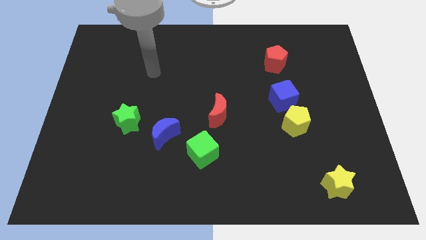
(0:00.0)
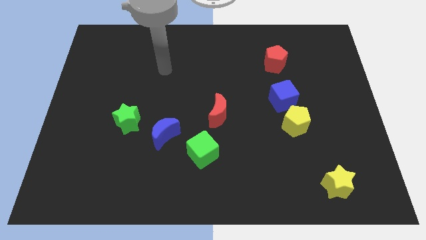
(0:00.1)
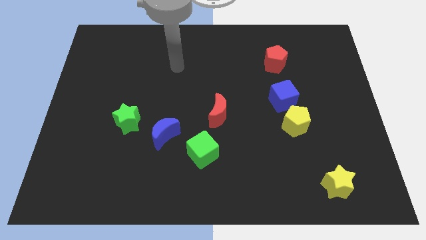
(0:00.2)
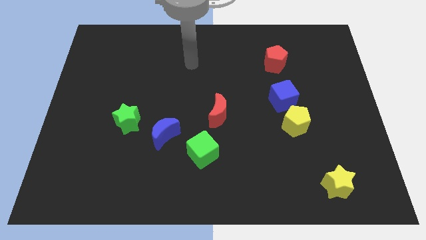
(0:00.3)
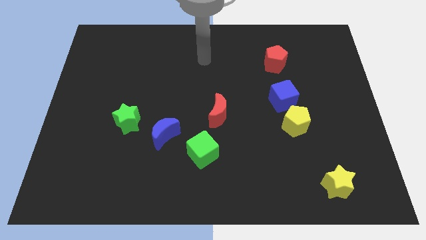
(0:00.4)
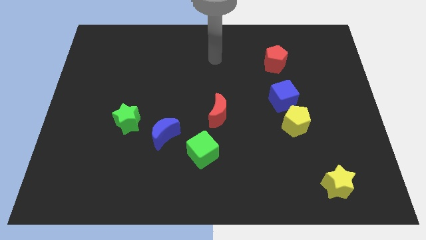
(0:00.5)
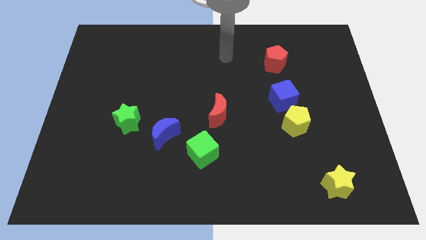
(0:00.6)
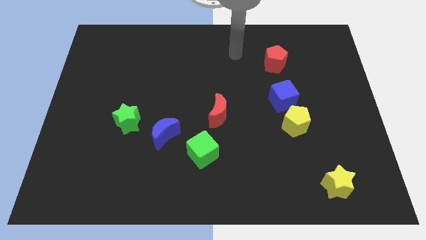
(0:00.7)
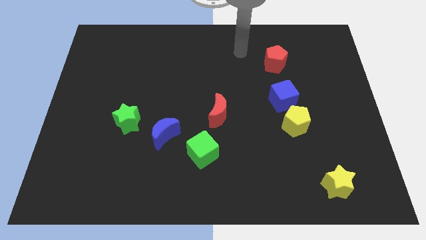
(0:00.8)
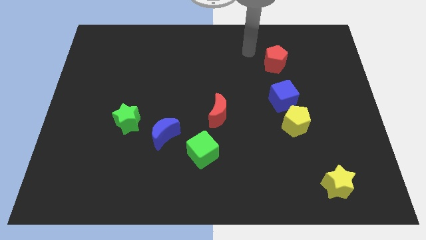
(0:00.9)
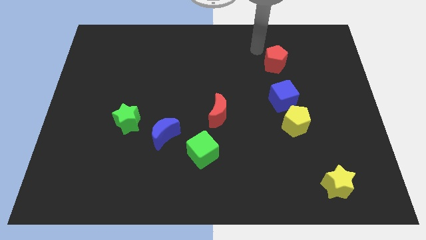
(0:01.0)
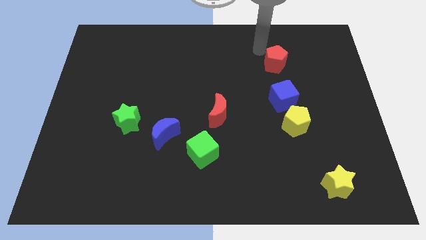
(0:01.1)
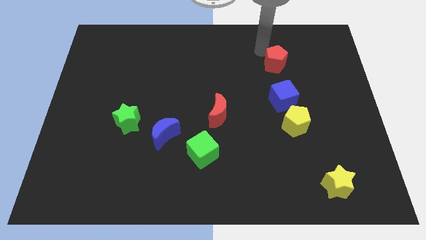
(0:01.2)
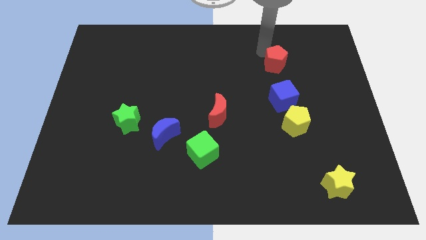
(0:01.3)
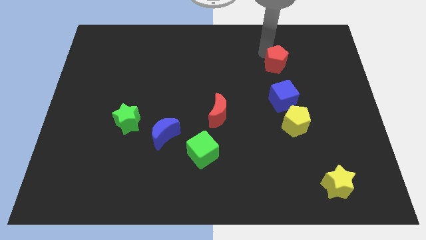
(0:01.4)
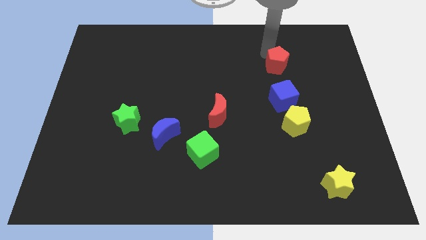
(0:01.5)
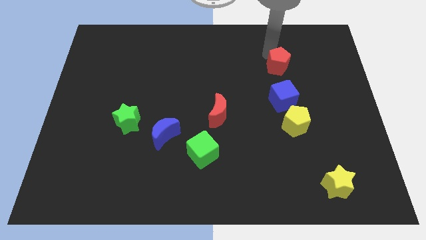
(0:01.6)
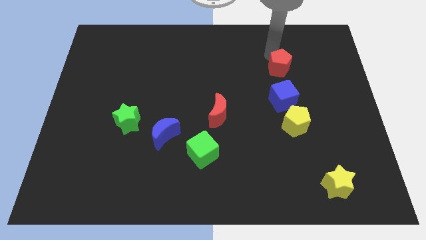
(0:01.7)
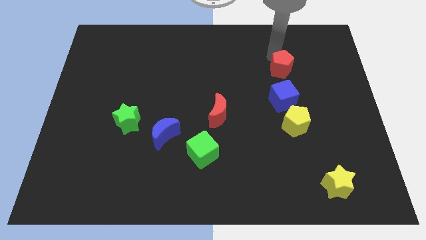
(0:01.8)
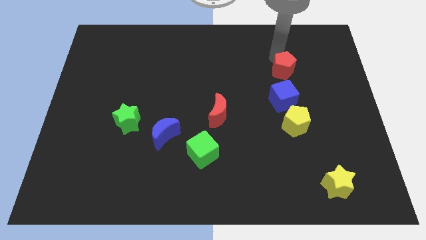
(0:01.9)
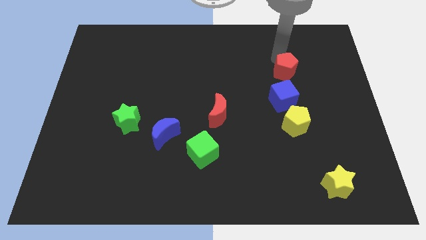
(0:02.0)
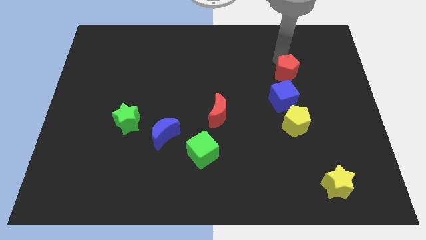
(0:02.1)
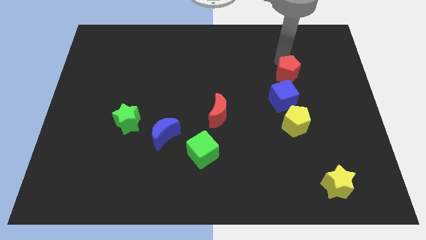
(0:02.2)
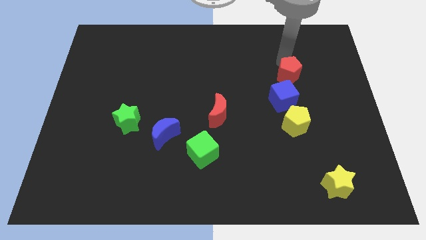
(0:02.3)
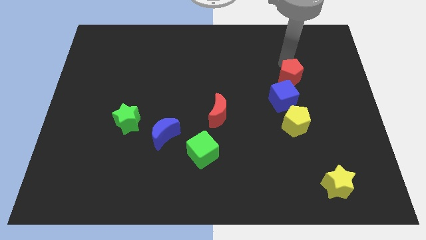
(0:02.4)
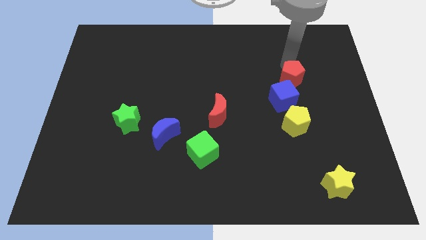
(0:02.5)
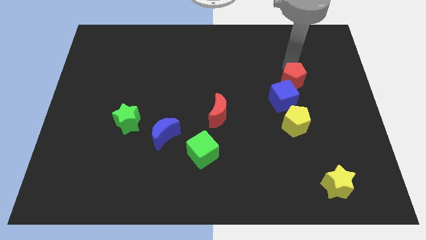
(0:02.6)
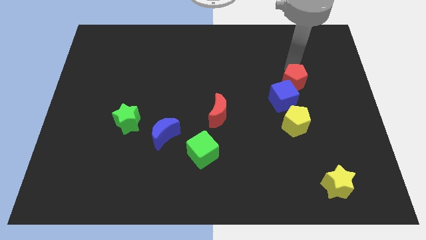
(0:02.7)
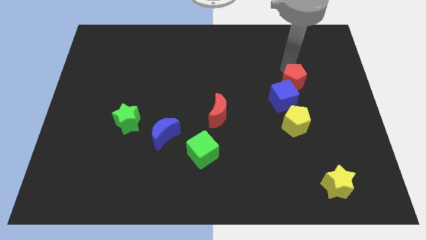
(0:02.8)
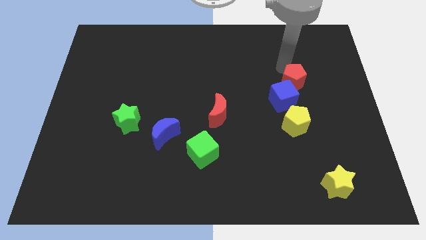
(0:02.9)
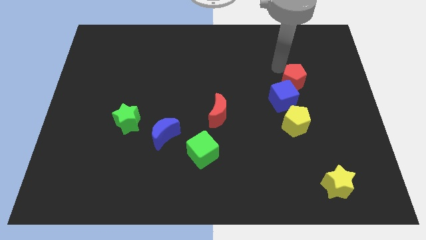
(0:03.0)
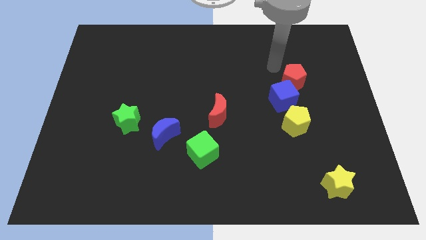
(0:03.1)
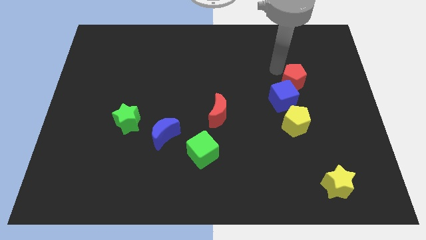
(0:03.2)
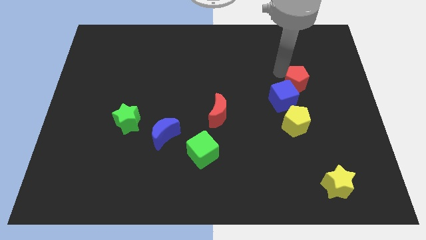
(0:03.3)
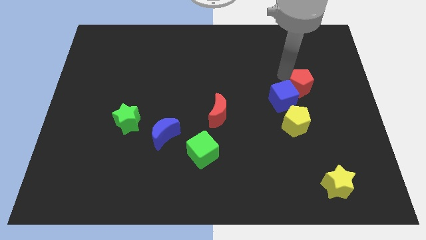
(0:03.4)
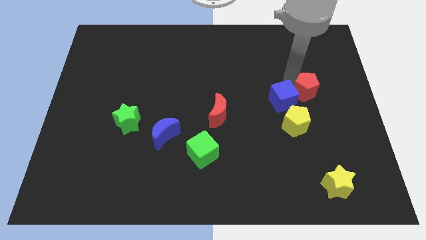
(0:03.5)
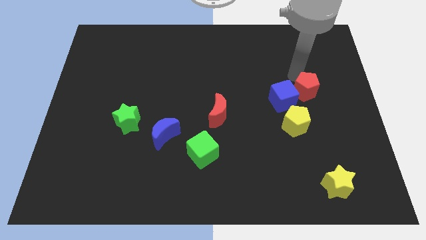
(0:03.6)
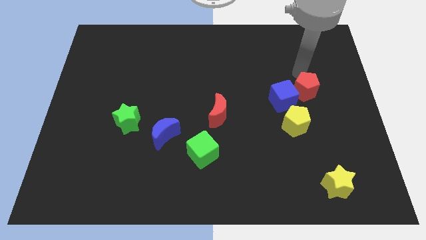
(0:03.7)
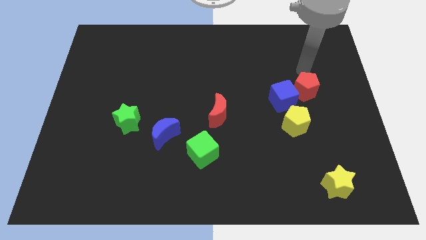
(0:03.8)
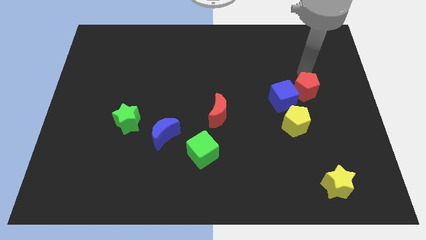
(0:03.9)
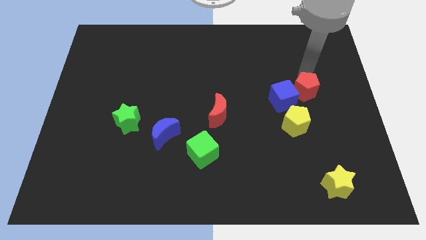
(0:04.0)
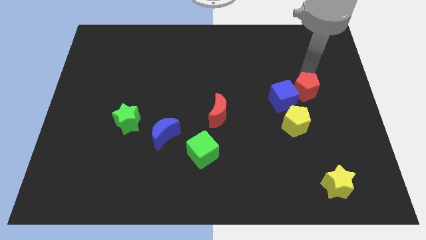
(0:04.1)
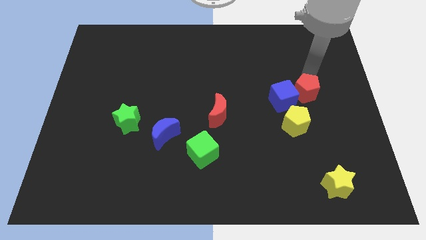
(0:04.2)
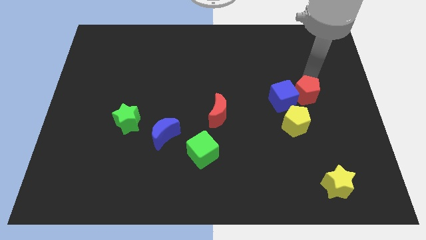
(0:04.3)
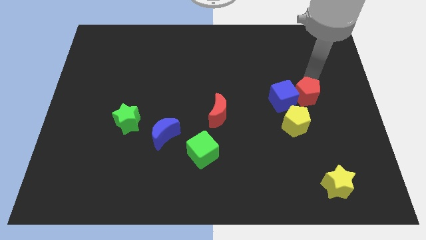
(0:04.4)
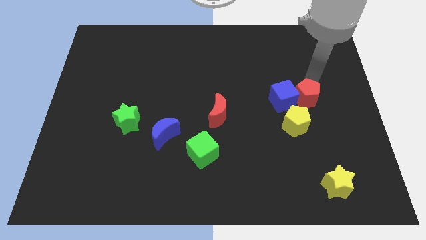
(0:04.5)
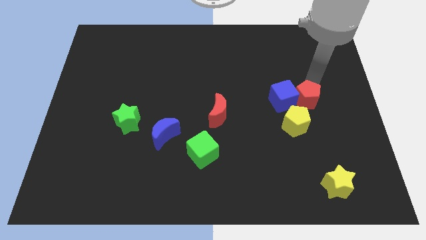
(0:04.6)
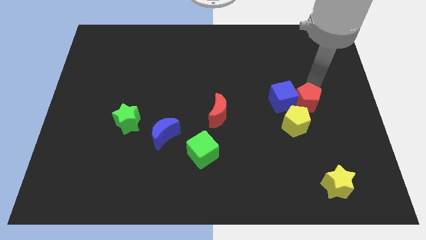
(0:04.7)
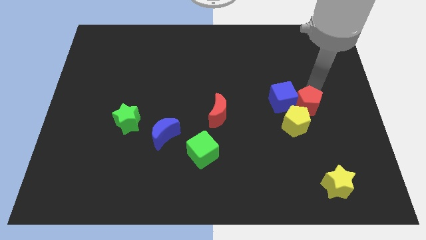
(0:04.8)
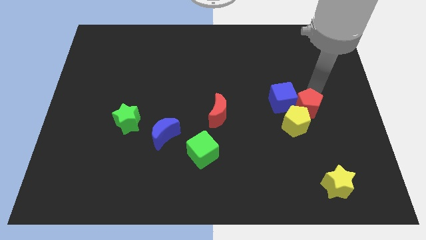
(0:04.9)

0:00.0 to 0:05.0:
put the red pentagon next to the yellow pentagon

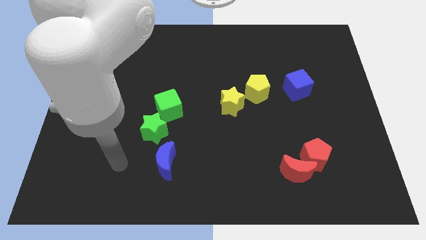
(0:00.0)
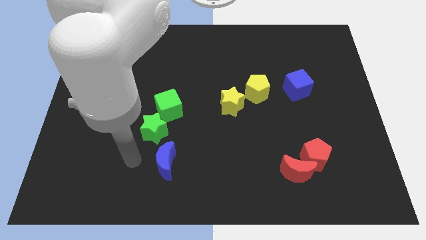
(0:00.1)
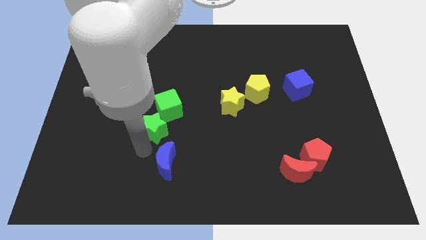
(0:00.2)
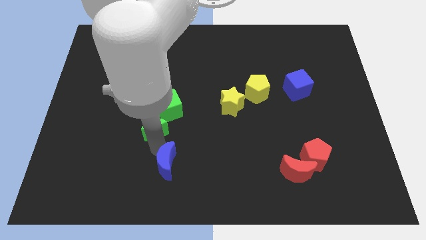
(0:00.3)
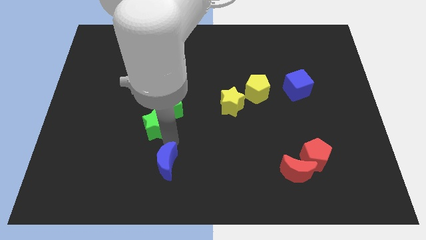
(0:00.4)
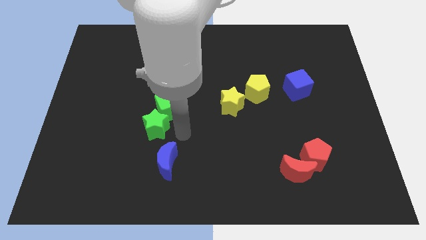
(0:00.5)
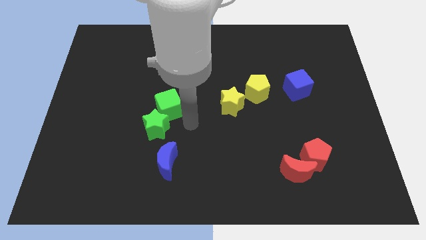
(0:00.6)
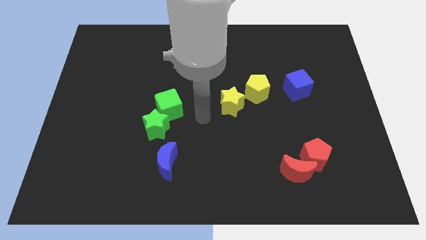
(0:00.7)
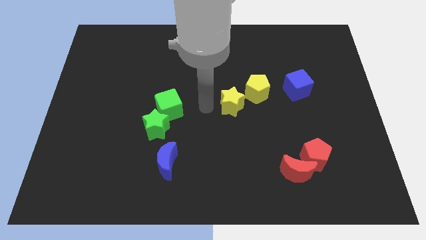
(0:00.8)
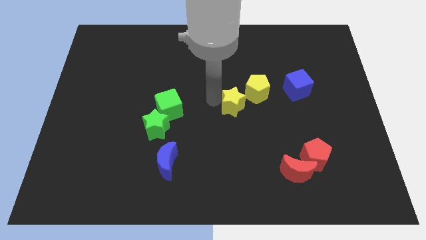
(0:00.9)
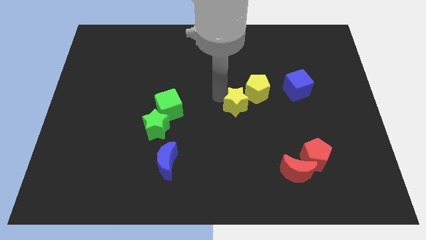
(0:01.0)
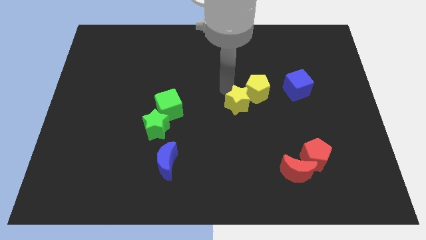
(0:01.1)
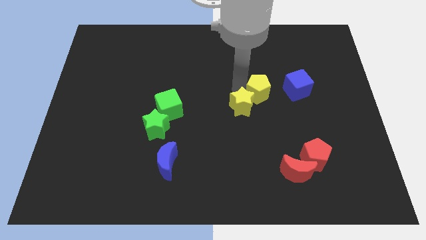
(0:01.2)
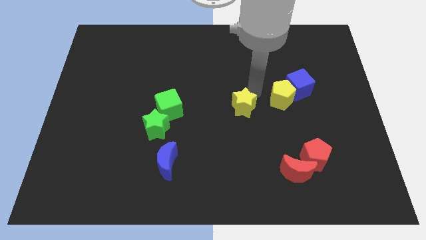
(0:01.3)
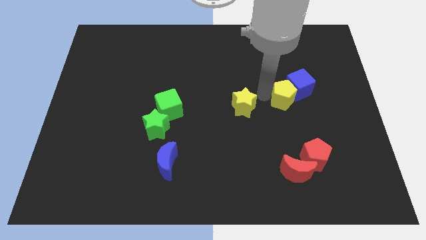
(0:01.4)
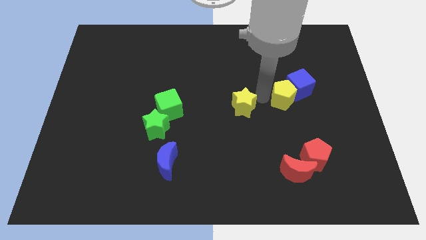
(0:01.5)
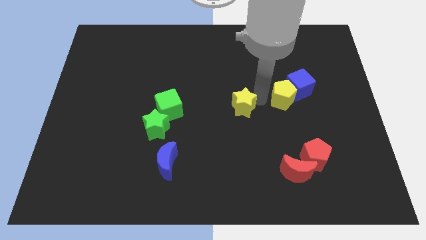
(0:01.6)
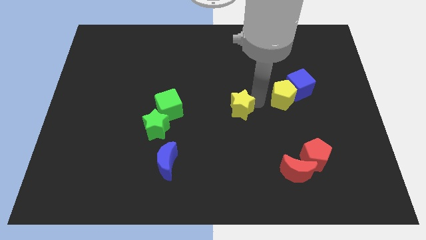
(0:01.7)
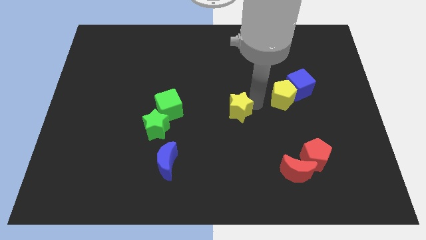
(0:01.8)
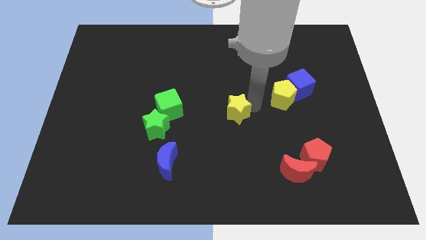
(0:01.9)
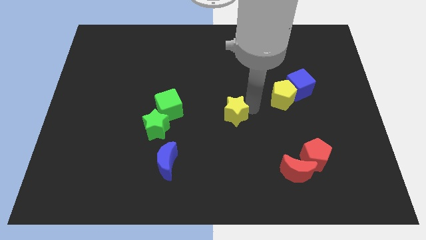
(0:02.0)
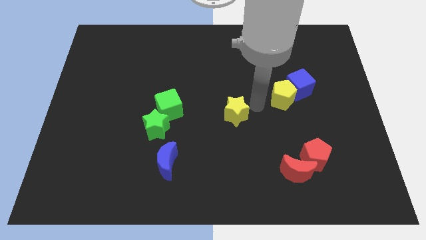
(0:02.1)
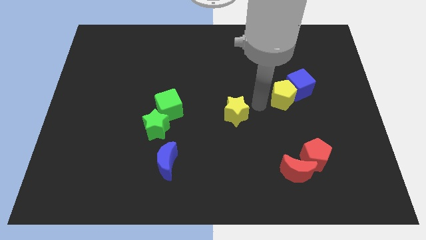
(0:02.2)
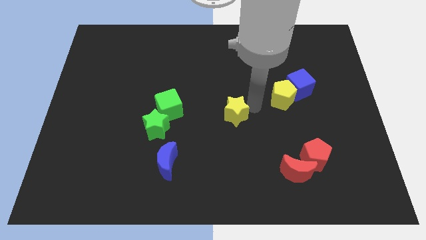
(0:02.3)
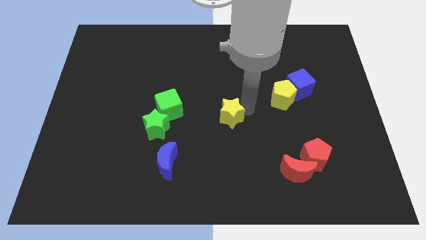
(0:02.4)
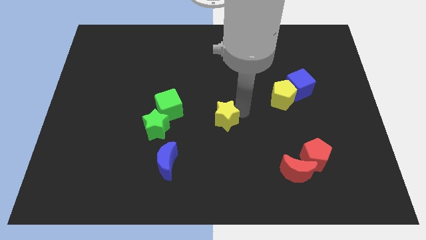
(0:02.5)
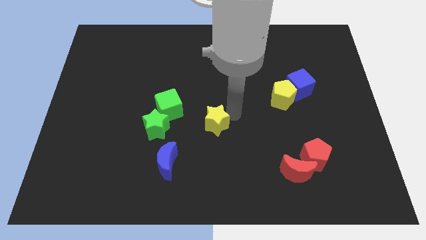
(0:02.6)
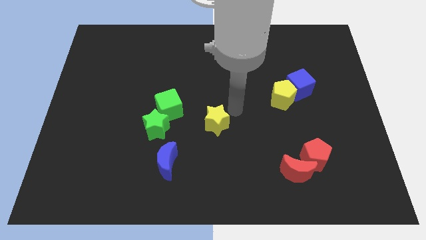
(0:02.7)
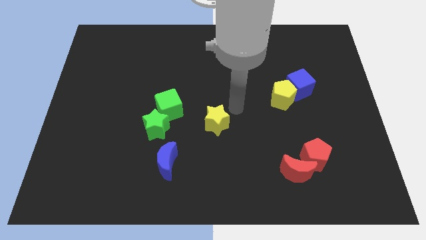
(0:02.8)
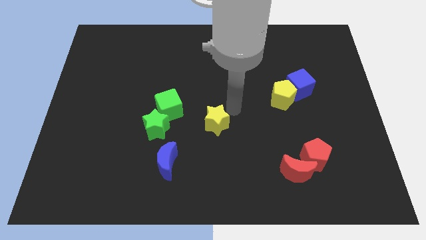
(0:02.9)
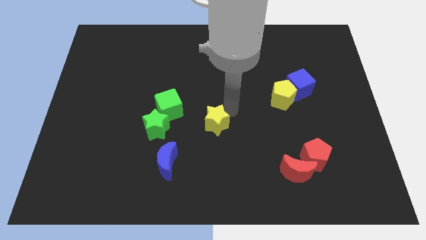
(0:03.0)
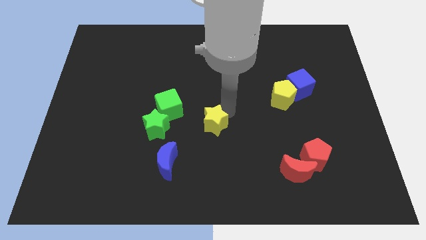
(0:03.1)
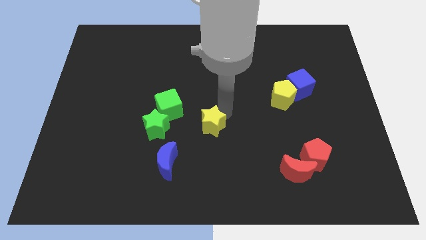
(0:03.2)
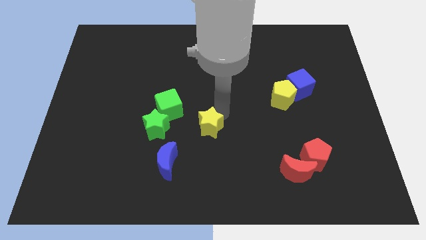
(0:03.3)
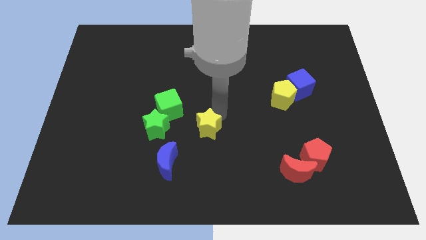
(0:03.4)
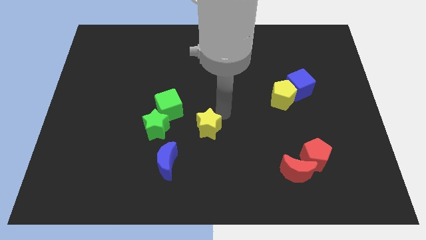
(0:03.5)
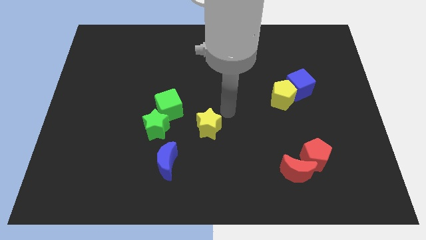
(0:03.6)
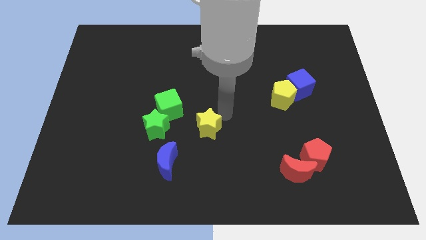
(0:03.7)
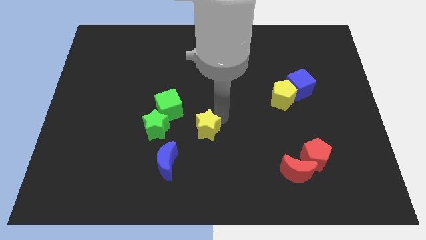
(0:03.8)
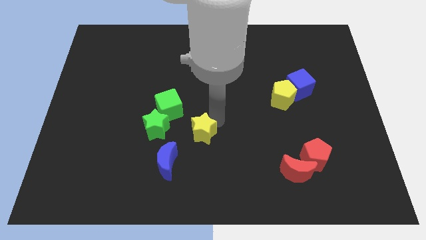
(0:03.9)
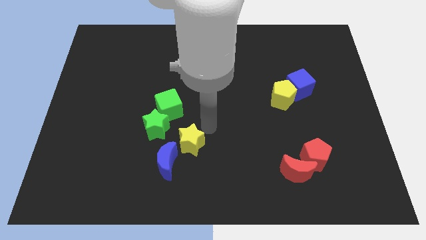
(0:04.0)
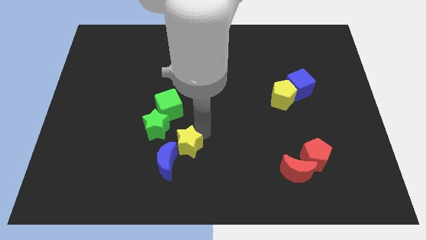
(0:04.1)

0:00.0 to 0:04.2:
slide the yellow star towards the blue moon
